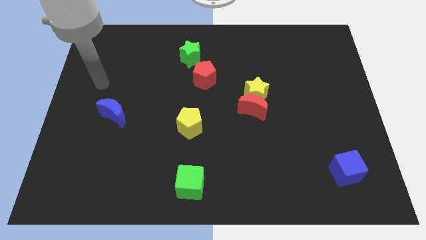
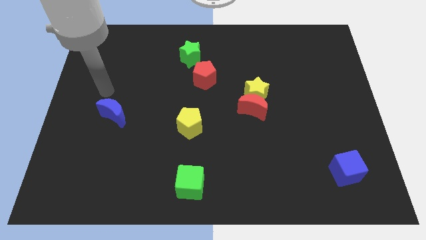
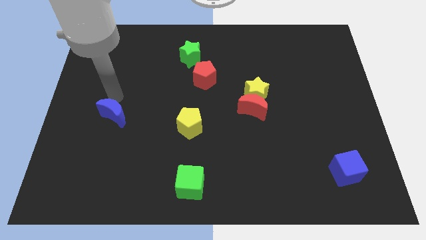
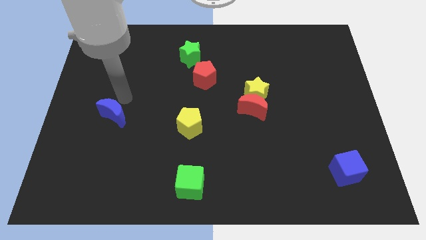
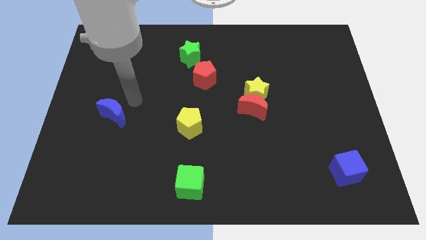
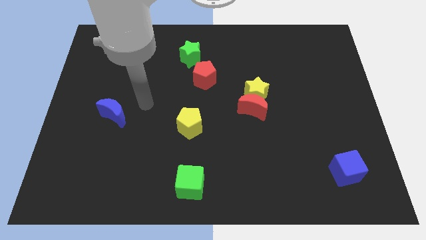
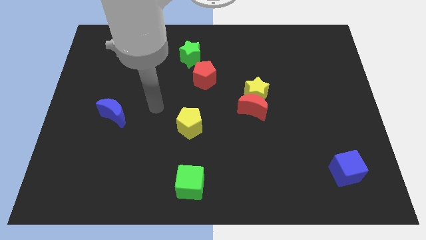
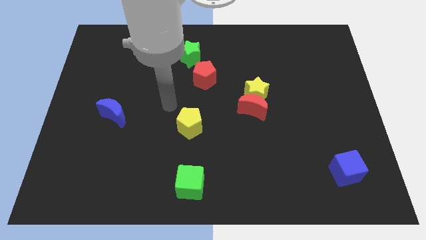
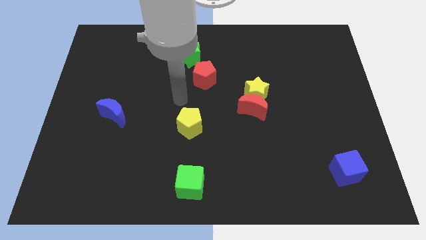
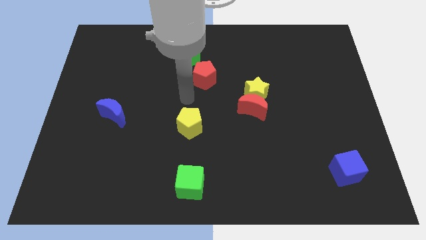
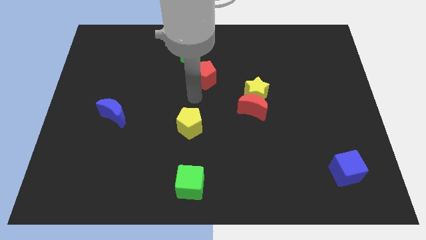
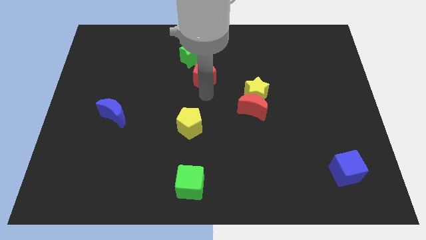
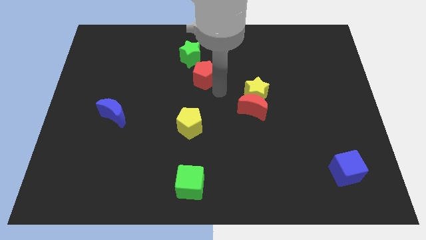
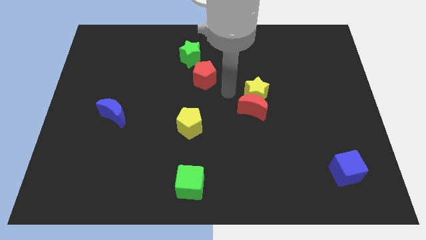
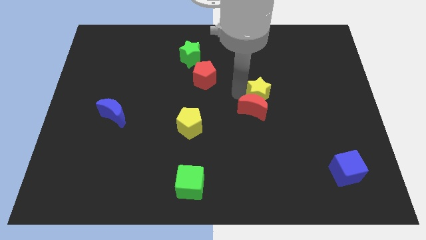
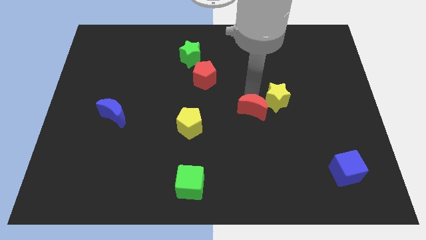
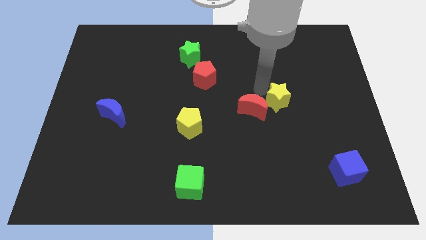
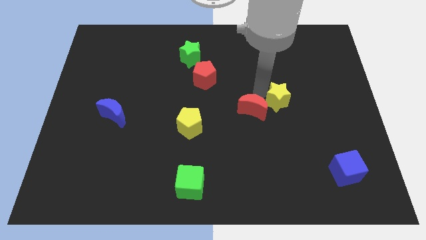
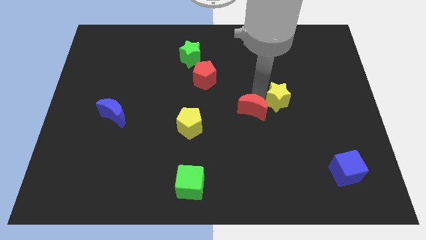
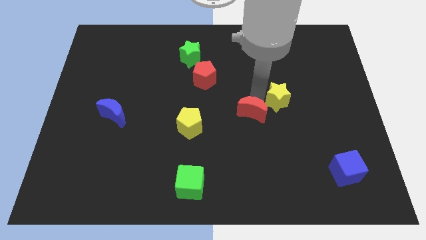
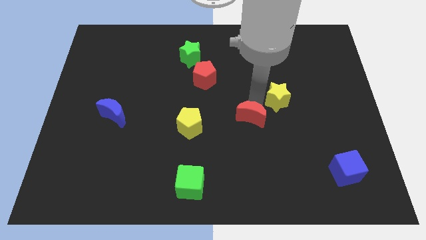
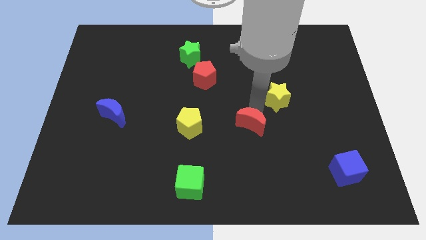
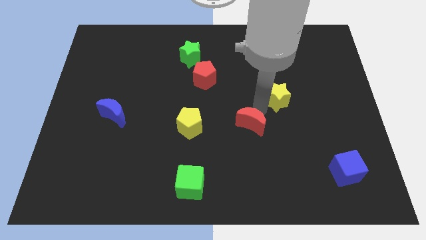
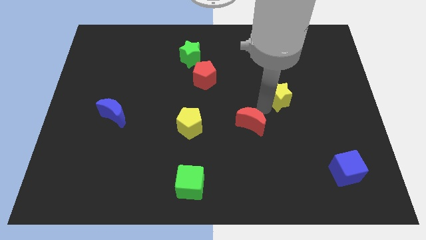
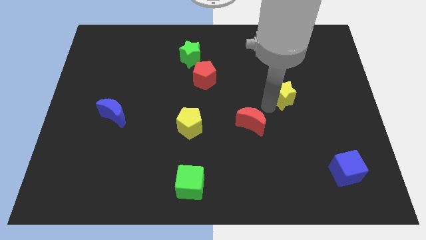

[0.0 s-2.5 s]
move the red moon away from the yellow star

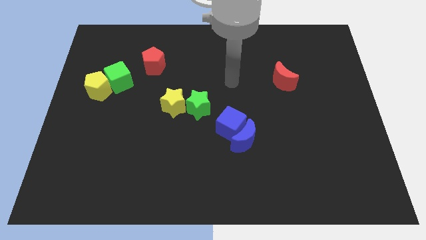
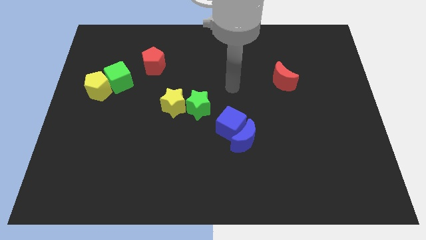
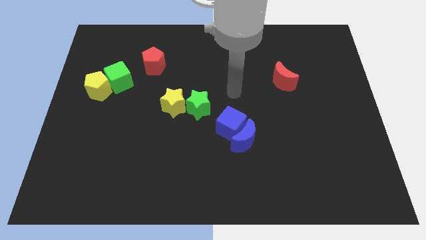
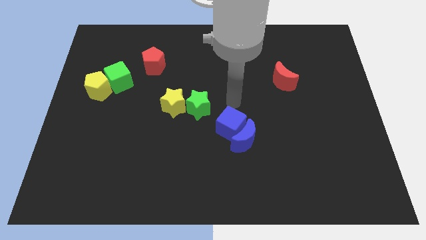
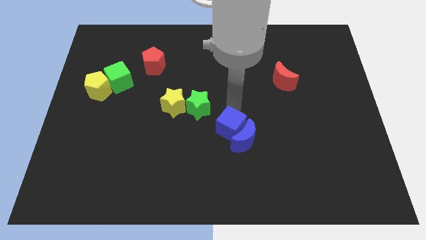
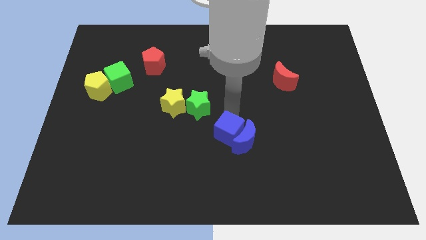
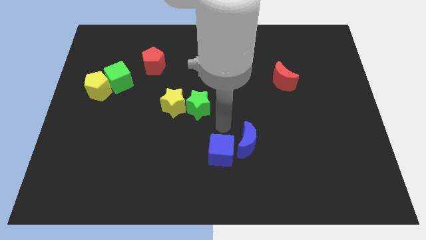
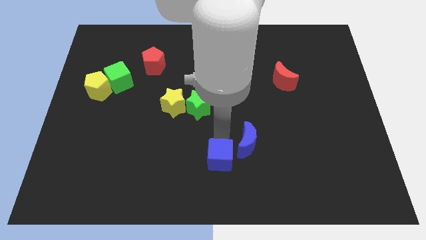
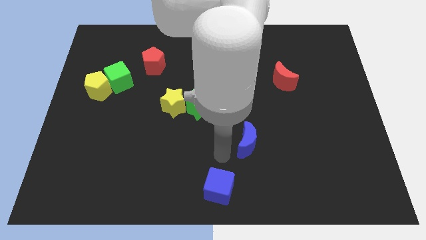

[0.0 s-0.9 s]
pull the blue moon apart from the blue cube

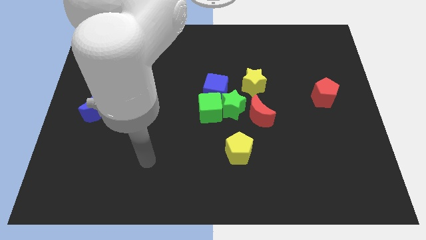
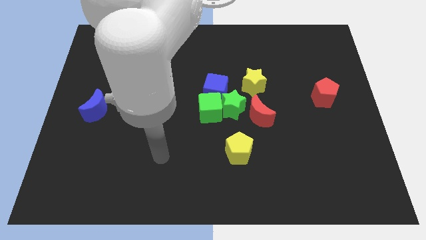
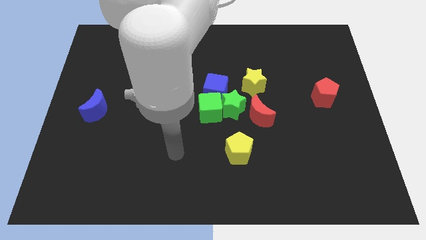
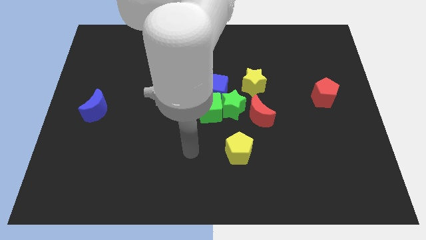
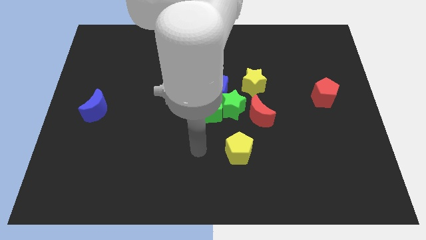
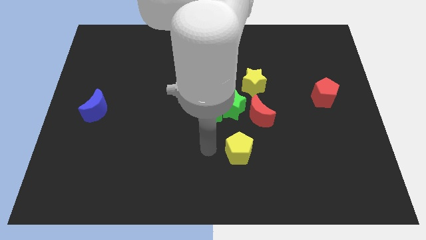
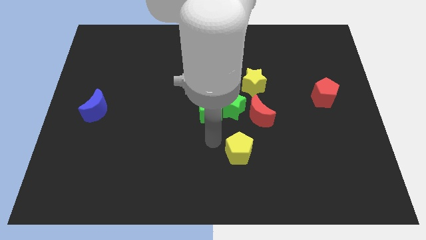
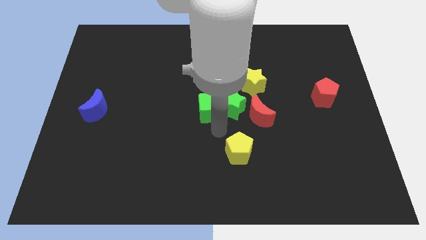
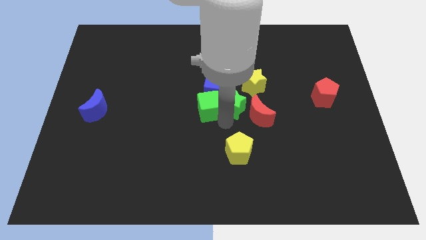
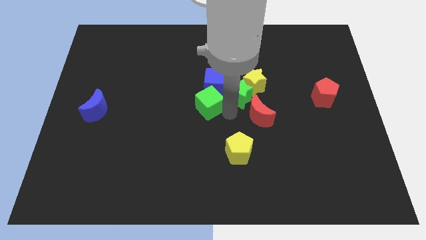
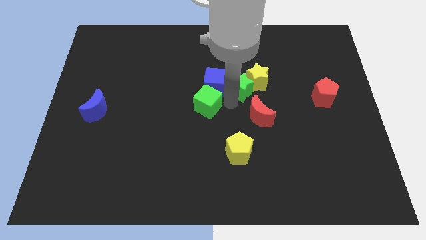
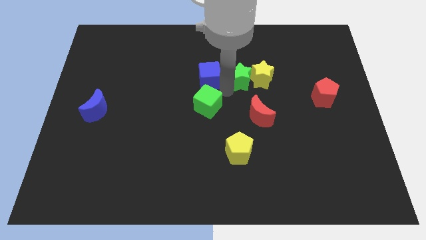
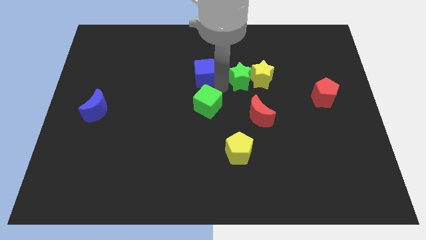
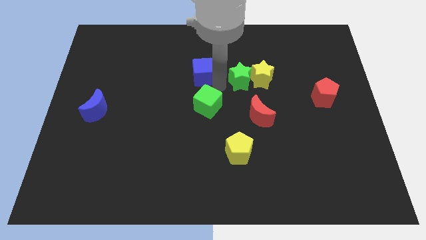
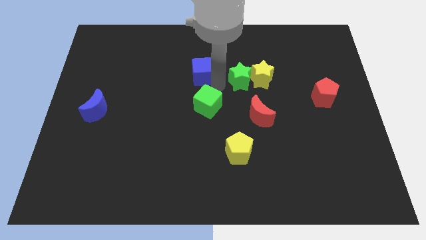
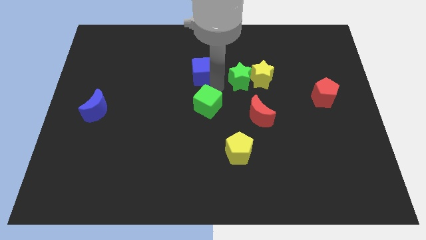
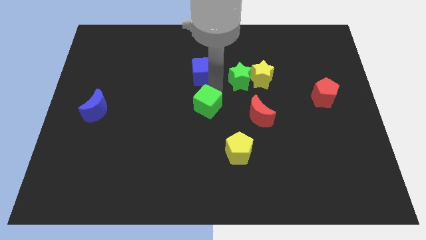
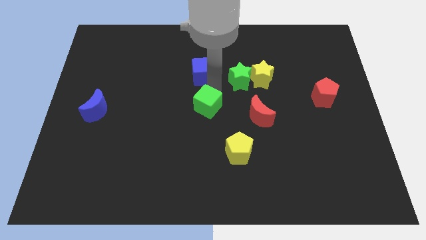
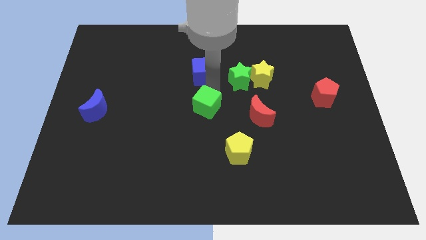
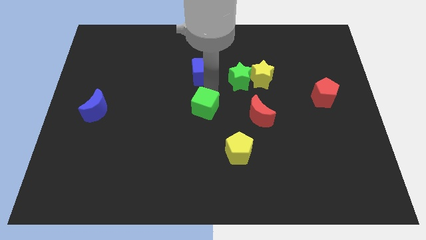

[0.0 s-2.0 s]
move the green cube away from the green star and blue cube

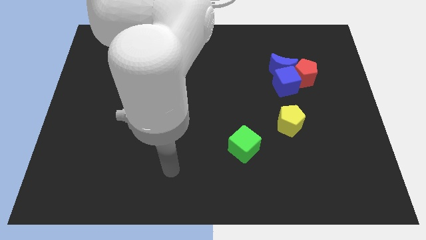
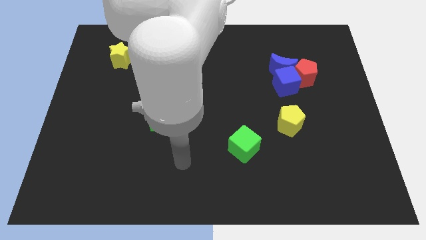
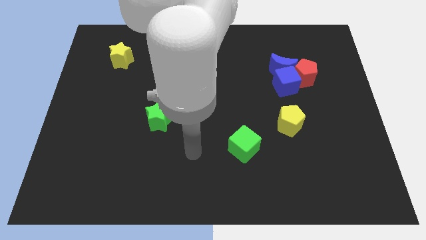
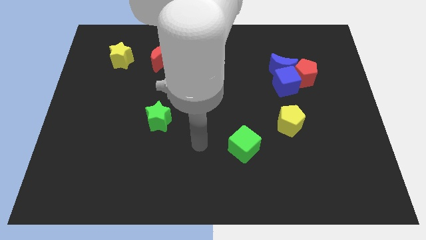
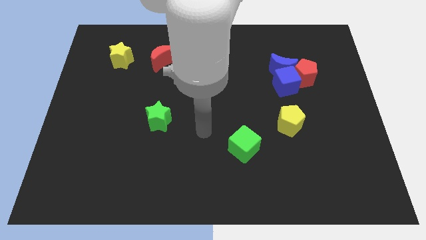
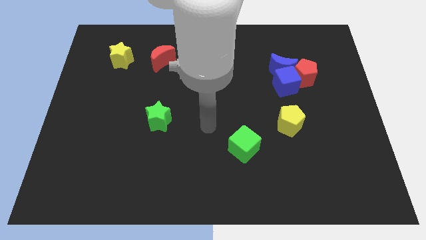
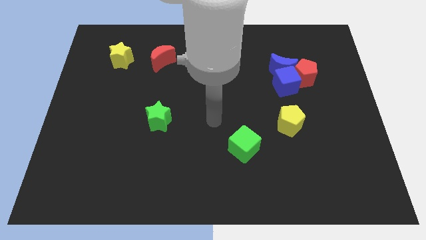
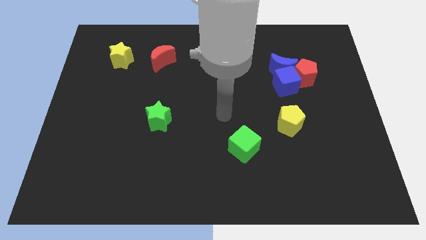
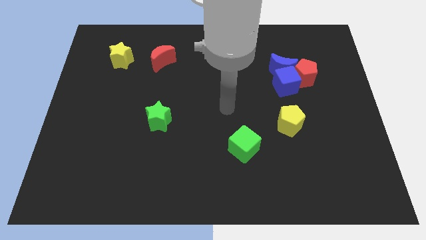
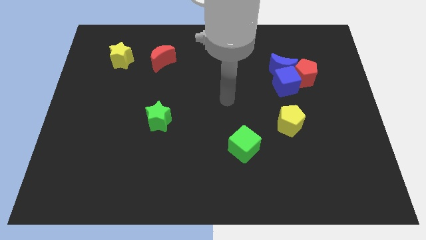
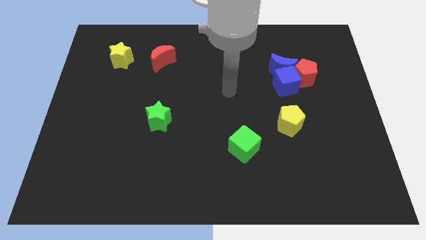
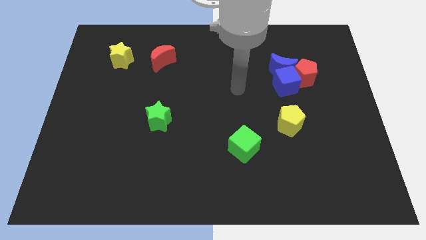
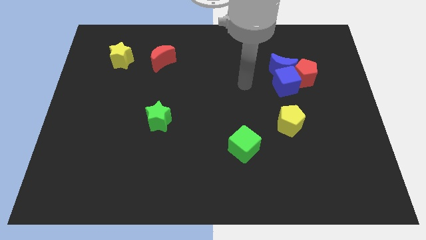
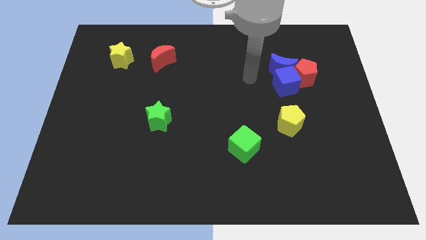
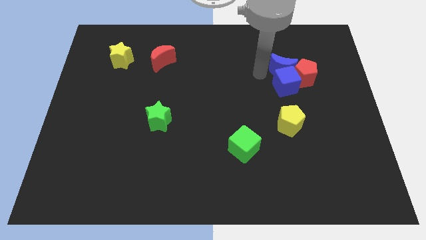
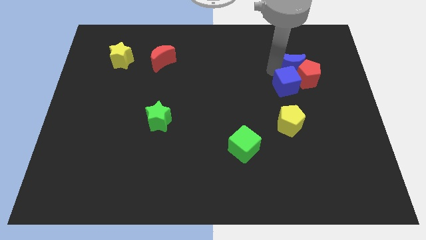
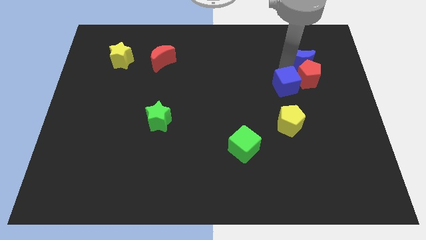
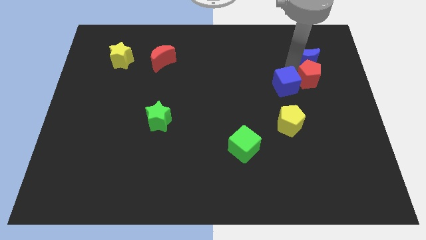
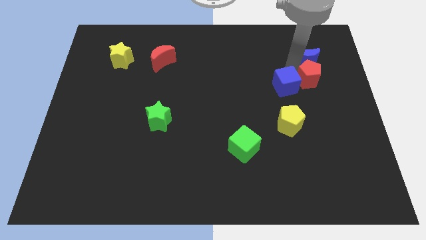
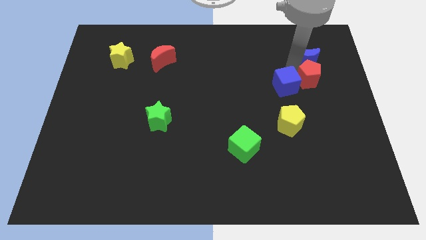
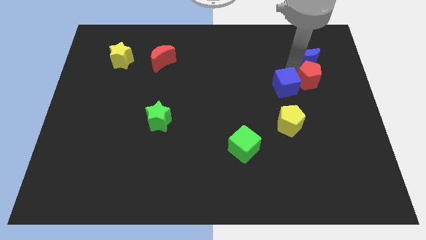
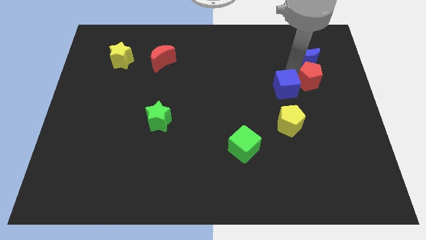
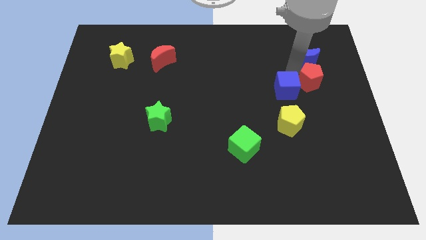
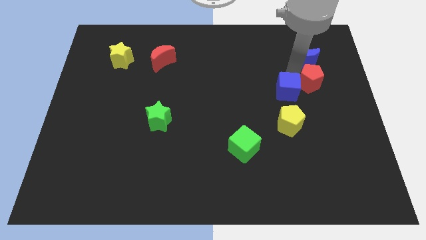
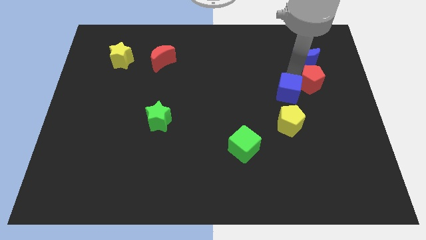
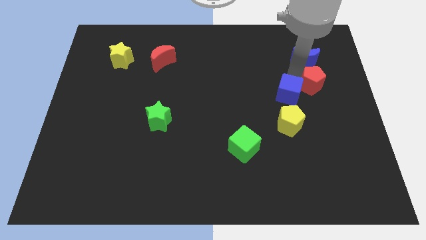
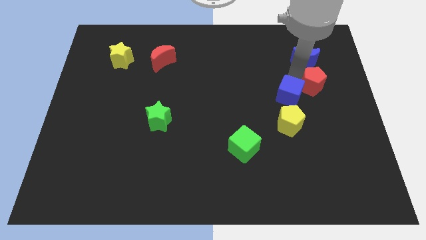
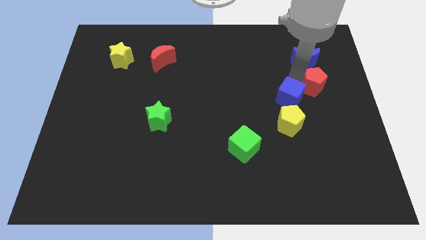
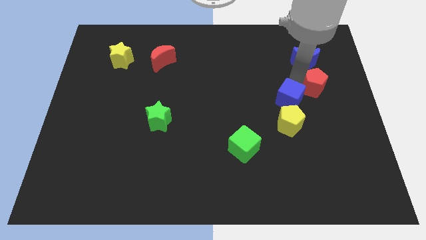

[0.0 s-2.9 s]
move the blue cube away from the blue moon and red pentagon

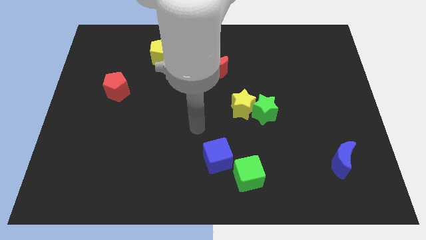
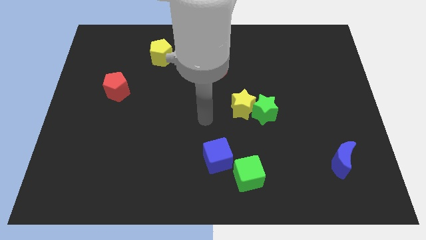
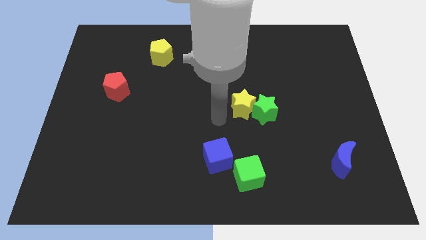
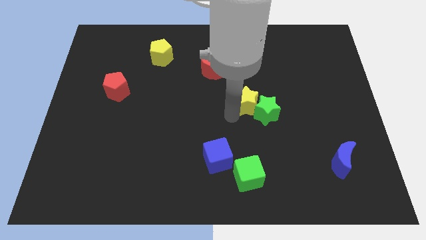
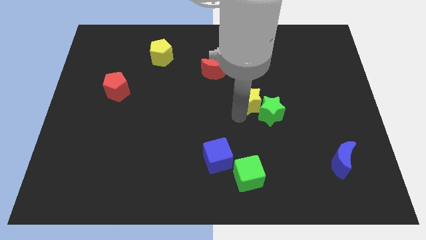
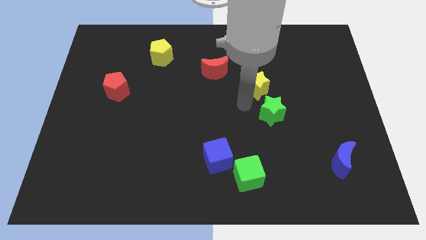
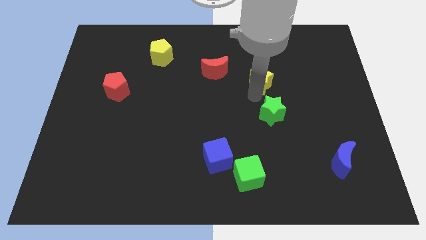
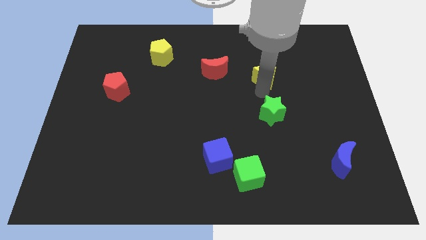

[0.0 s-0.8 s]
pull the green star apart from the yellow star

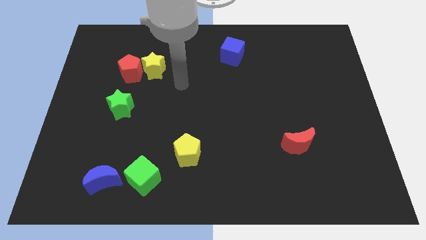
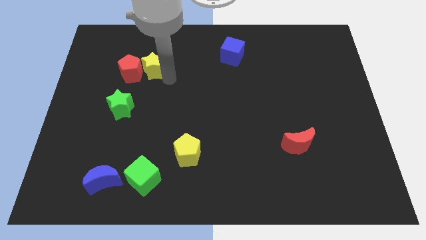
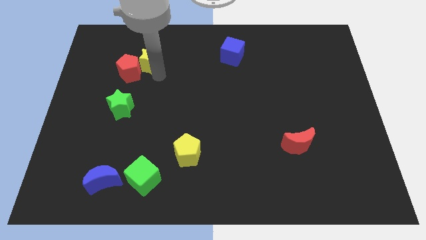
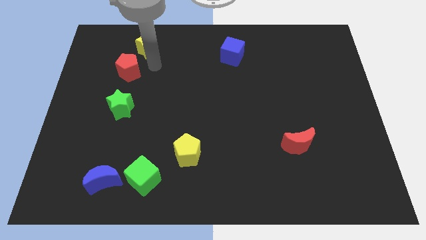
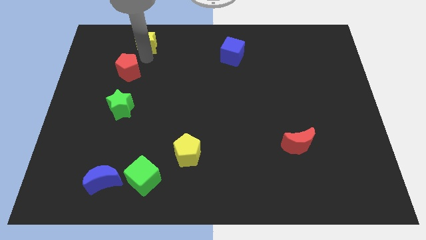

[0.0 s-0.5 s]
move the red pentagon away from the yellow star
